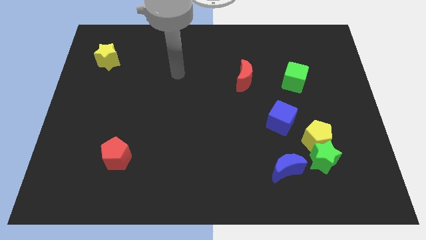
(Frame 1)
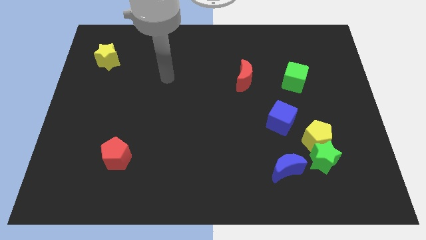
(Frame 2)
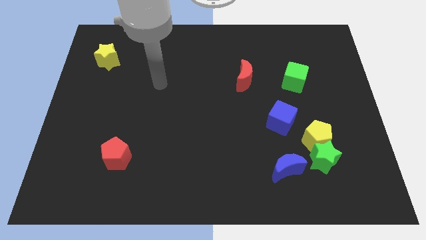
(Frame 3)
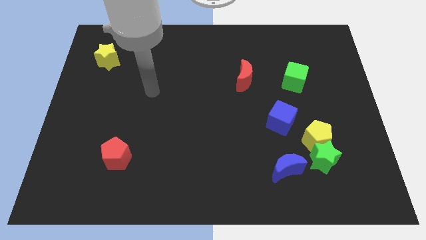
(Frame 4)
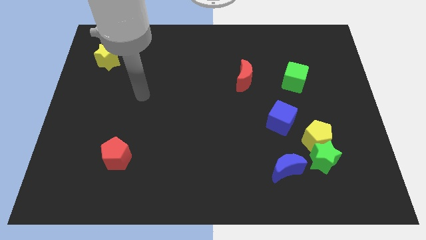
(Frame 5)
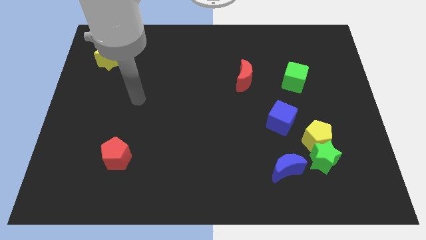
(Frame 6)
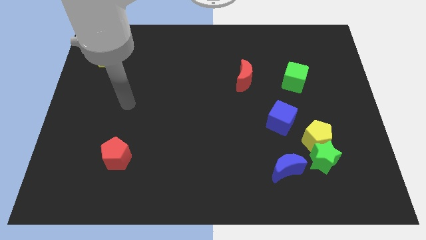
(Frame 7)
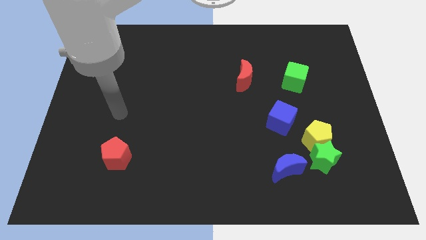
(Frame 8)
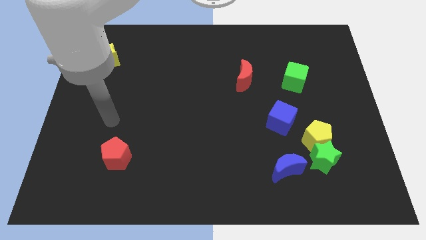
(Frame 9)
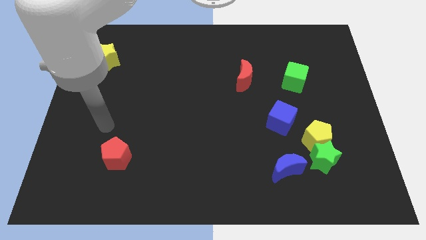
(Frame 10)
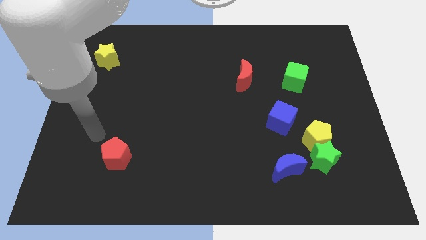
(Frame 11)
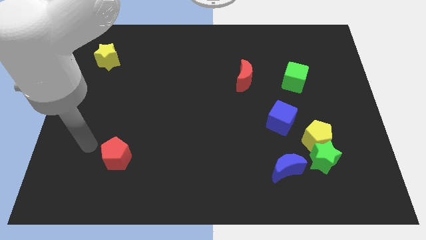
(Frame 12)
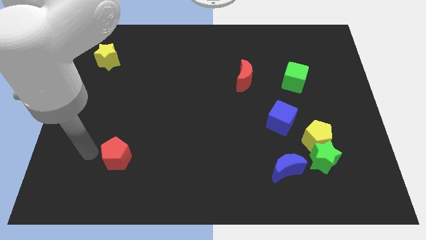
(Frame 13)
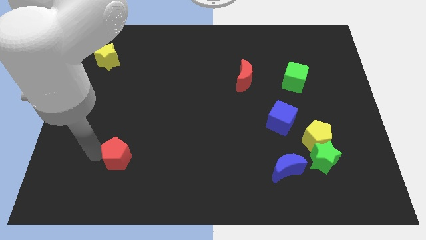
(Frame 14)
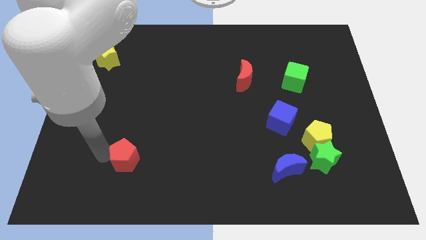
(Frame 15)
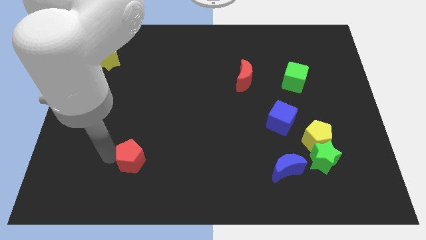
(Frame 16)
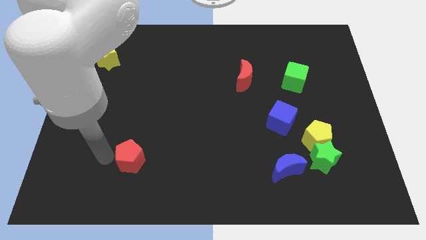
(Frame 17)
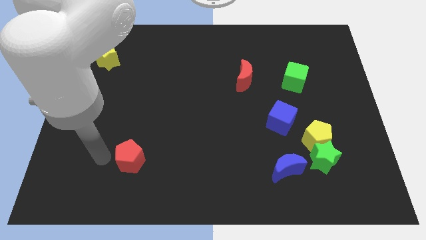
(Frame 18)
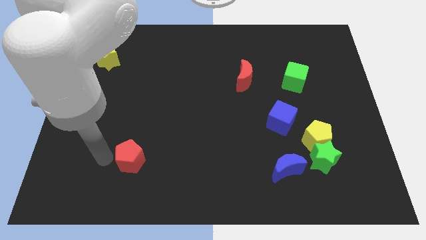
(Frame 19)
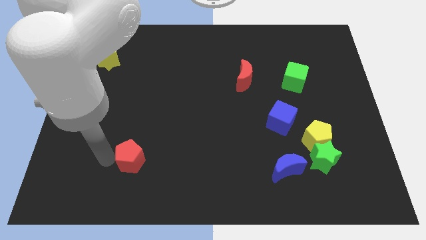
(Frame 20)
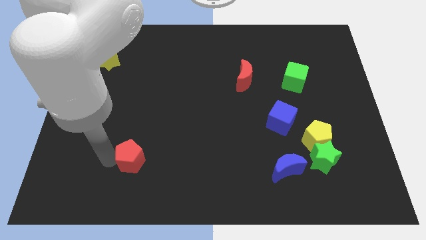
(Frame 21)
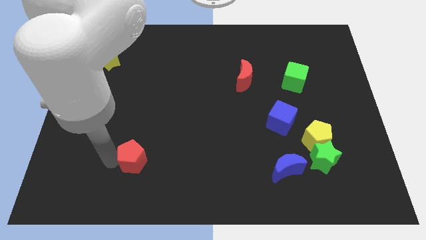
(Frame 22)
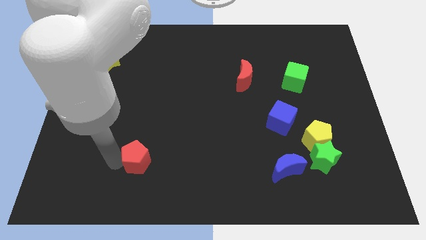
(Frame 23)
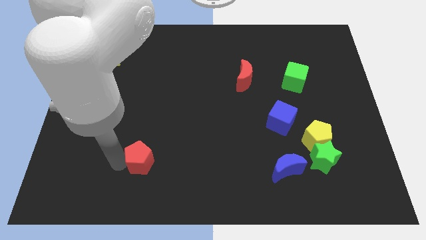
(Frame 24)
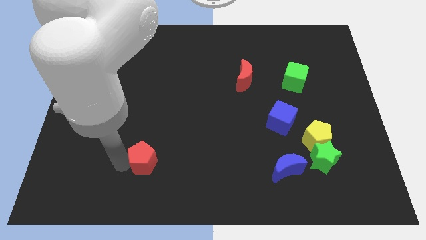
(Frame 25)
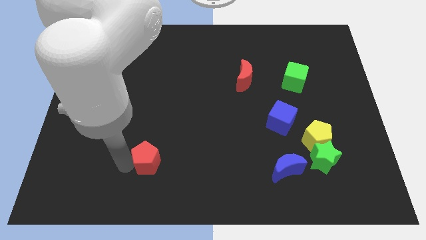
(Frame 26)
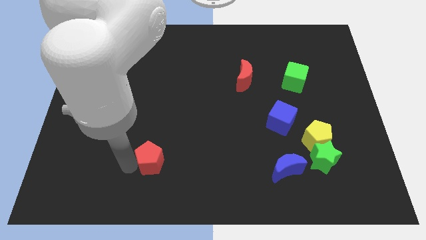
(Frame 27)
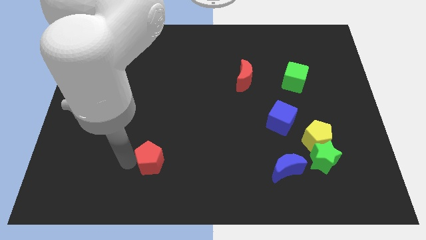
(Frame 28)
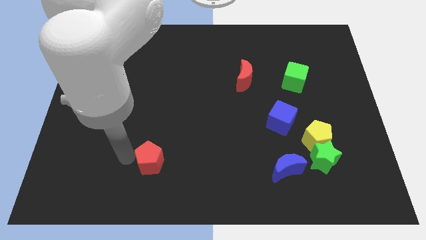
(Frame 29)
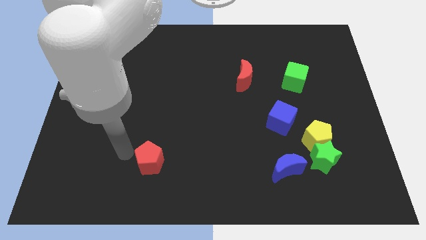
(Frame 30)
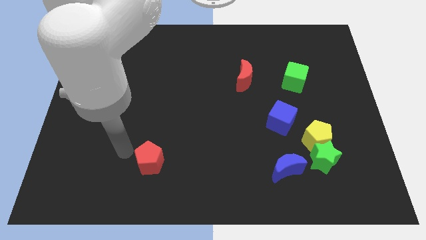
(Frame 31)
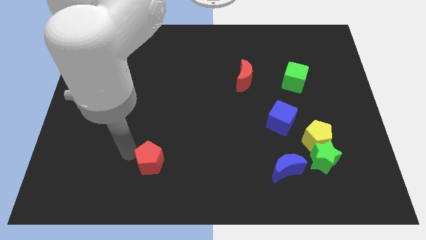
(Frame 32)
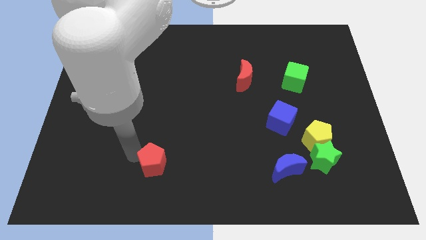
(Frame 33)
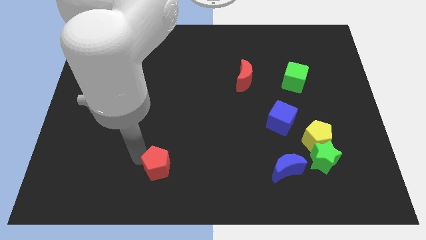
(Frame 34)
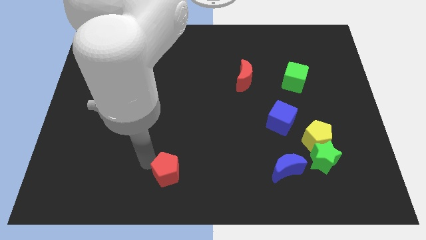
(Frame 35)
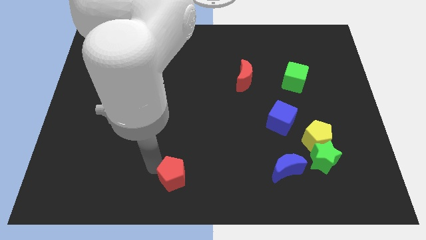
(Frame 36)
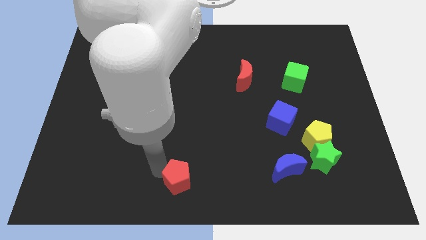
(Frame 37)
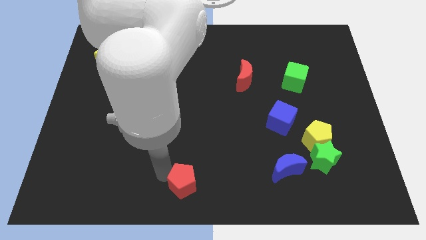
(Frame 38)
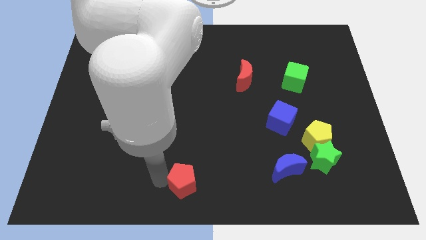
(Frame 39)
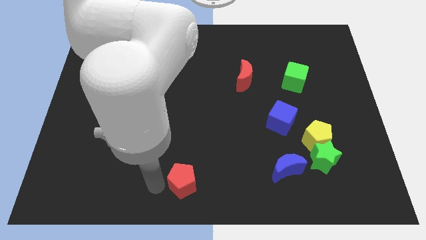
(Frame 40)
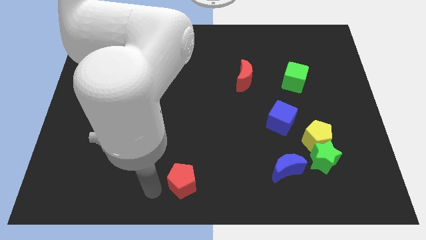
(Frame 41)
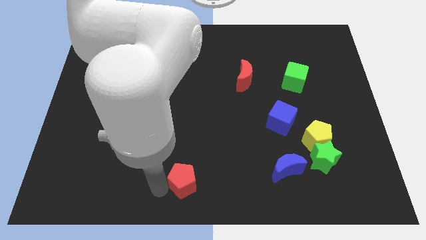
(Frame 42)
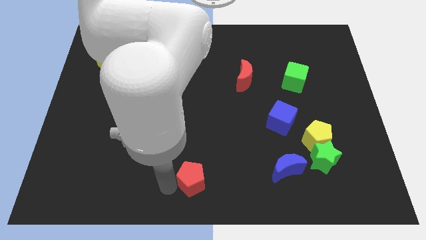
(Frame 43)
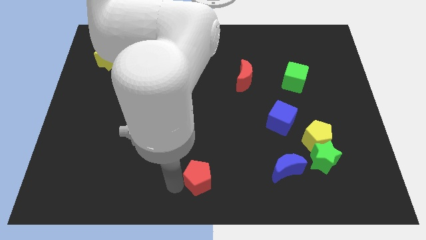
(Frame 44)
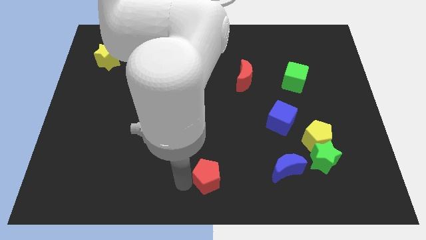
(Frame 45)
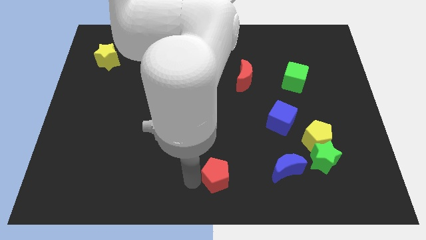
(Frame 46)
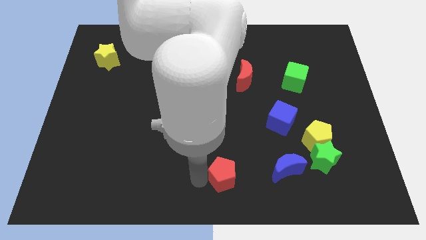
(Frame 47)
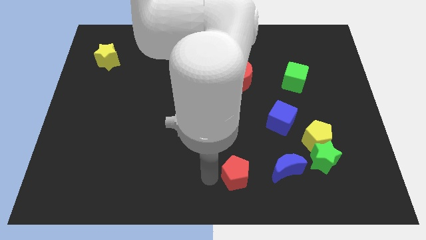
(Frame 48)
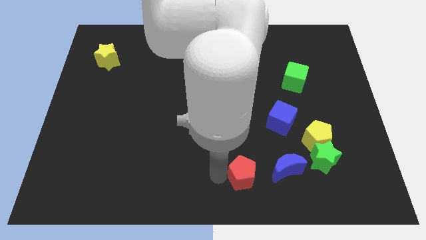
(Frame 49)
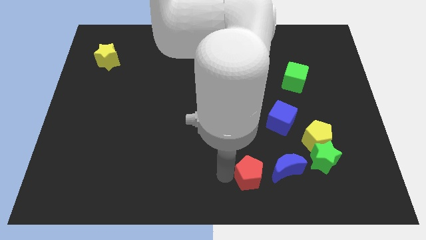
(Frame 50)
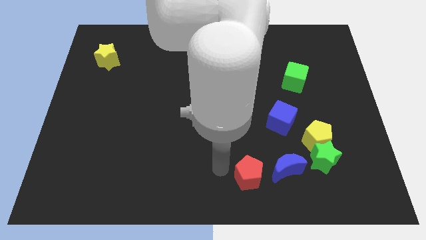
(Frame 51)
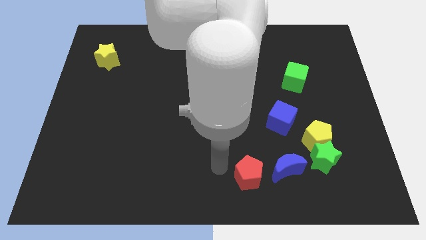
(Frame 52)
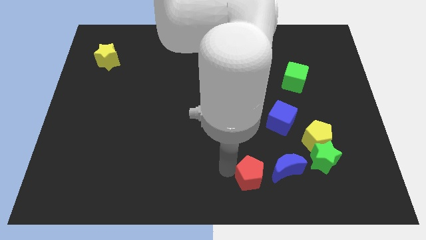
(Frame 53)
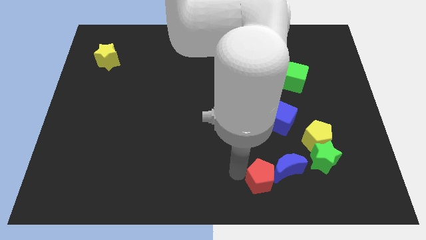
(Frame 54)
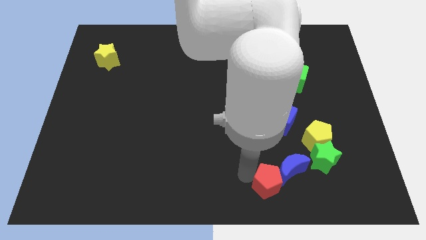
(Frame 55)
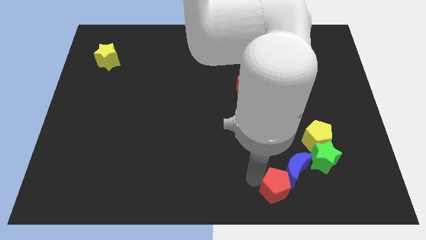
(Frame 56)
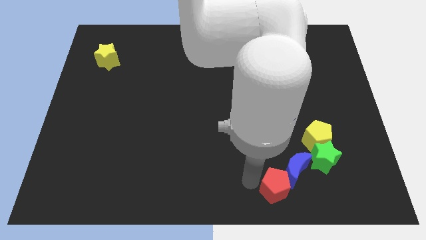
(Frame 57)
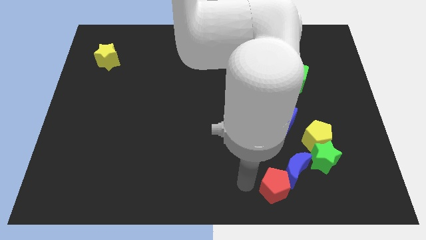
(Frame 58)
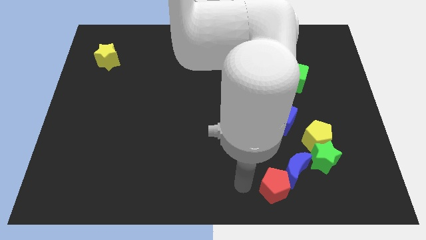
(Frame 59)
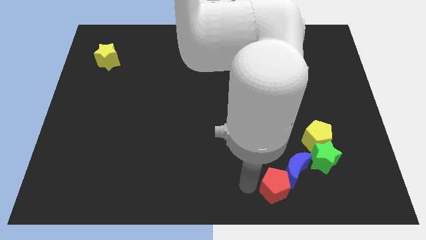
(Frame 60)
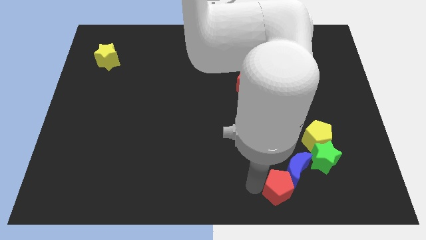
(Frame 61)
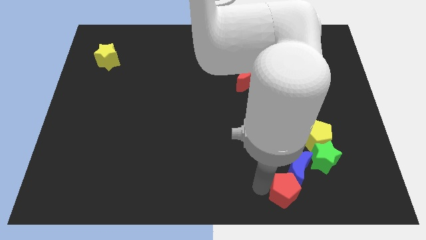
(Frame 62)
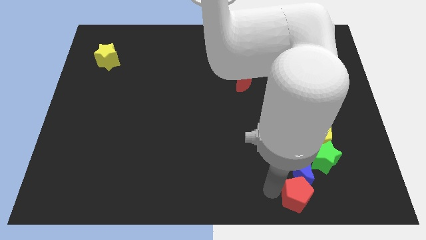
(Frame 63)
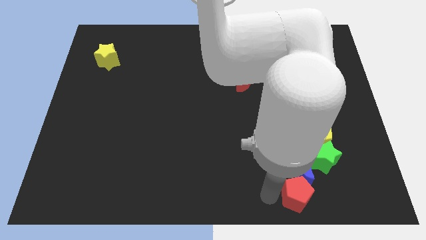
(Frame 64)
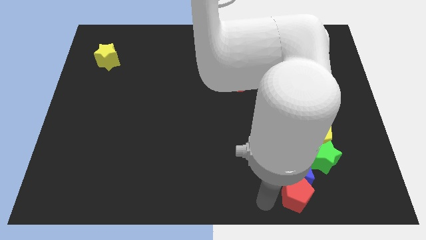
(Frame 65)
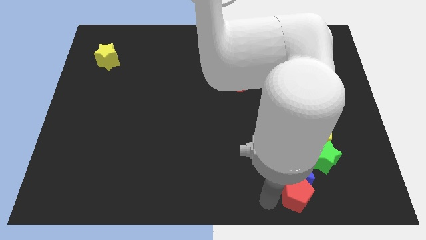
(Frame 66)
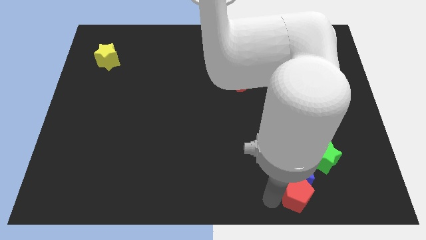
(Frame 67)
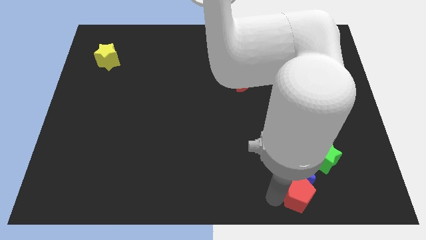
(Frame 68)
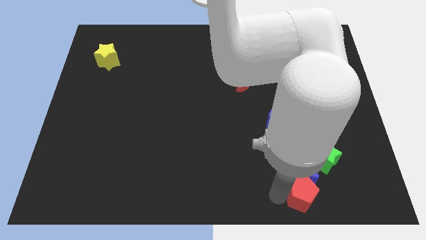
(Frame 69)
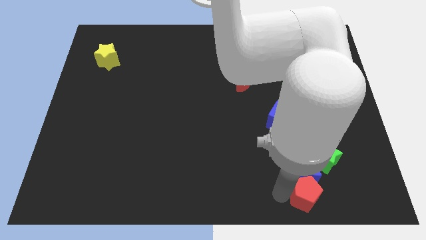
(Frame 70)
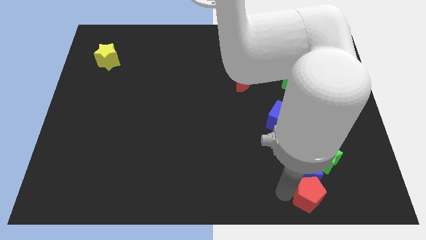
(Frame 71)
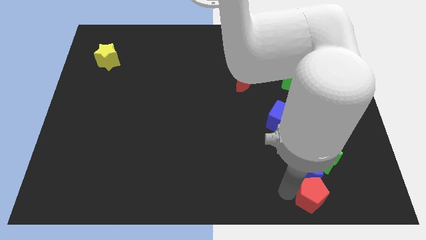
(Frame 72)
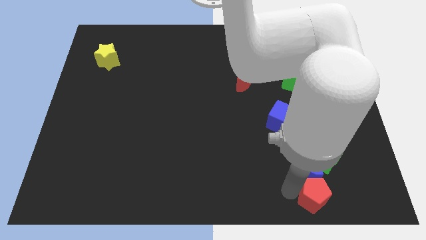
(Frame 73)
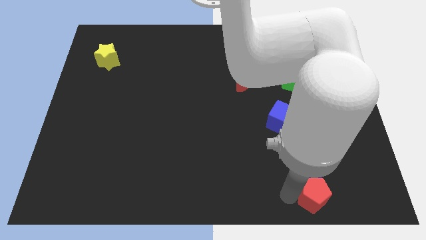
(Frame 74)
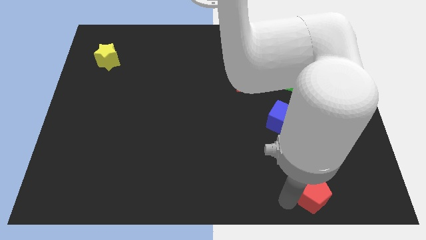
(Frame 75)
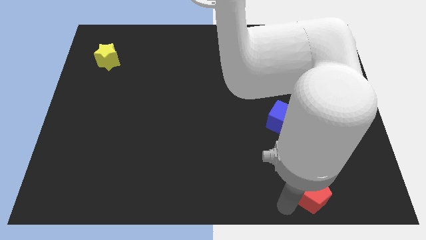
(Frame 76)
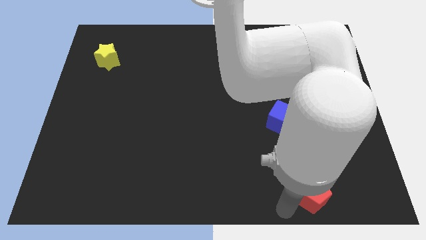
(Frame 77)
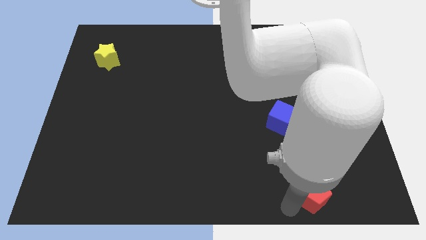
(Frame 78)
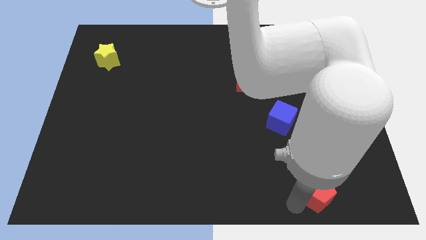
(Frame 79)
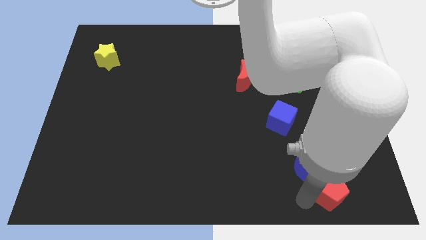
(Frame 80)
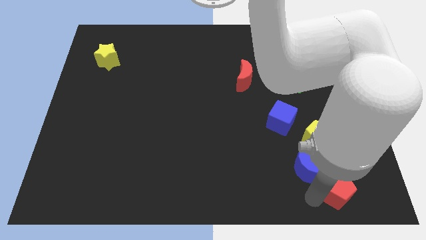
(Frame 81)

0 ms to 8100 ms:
slide the red pentagon diagonally down and to the right of the green star

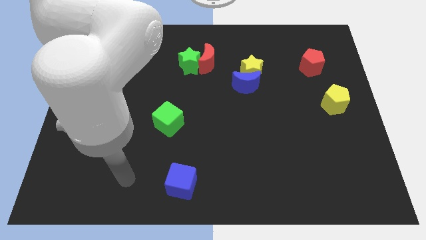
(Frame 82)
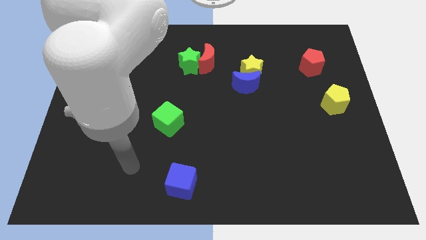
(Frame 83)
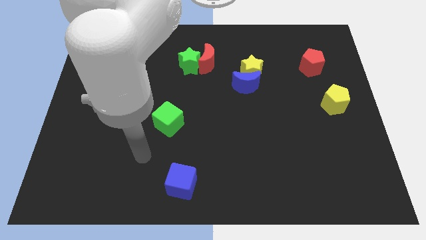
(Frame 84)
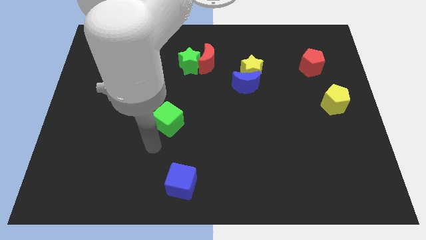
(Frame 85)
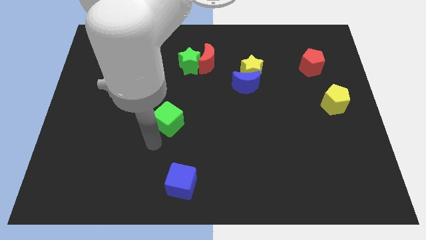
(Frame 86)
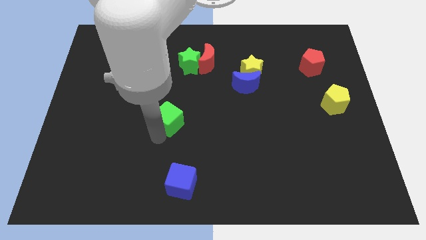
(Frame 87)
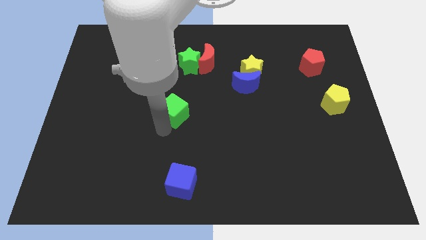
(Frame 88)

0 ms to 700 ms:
slide the green cube to the bottom of the green star
